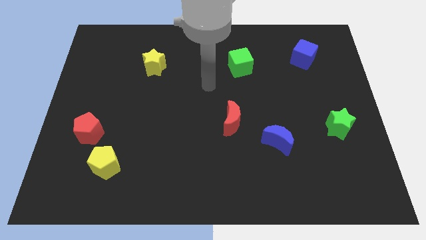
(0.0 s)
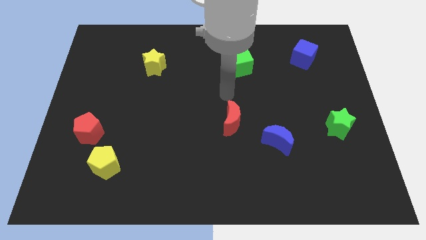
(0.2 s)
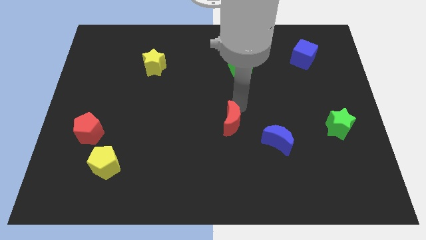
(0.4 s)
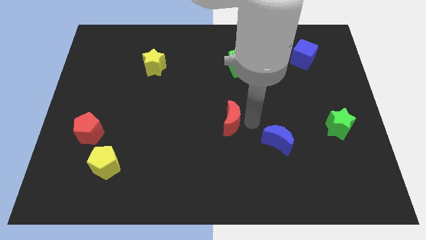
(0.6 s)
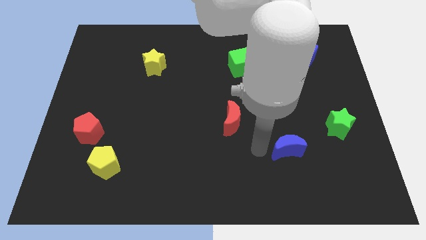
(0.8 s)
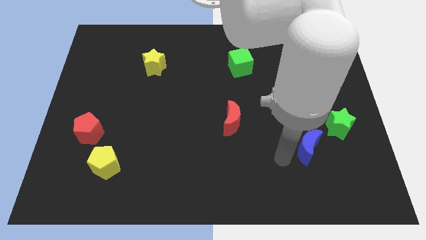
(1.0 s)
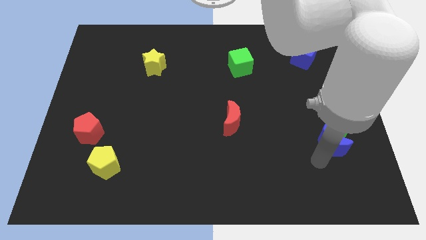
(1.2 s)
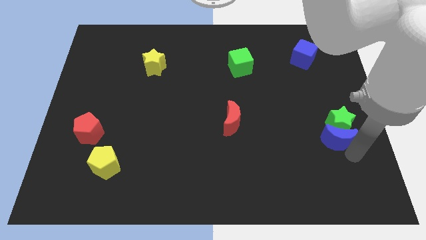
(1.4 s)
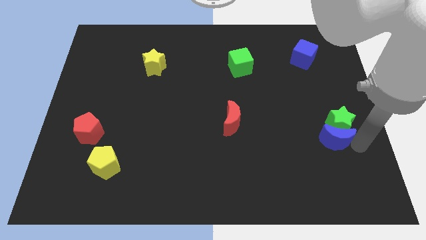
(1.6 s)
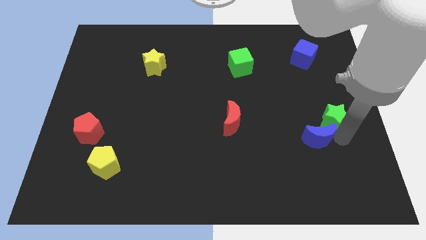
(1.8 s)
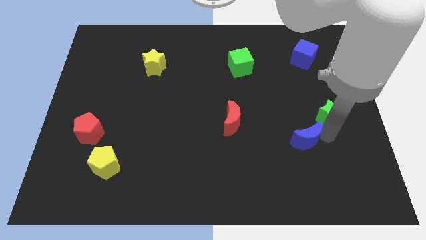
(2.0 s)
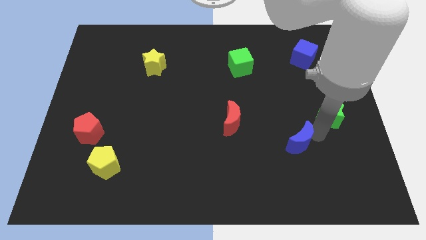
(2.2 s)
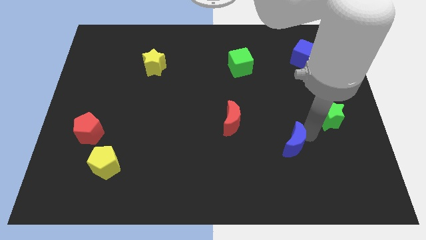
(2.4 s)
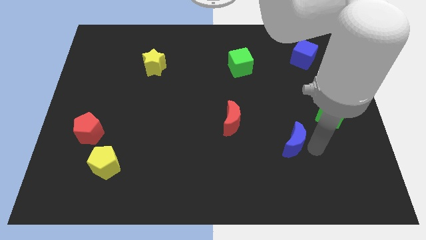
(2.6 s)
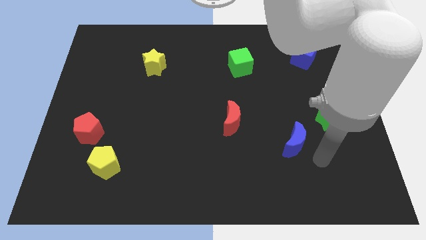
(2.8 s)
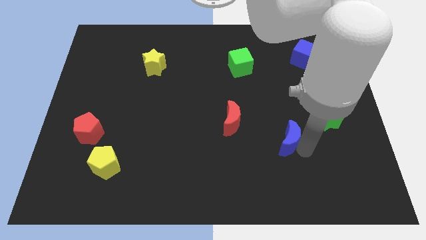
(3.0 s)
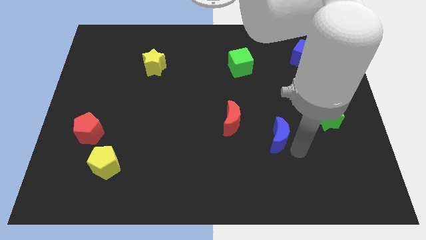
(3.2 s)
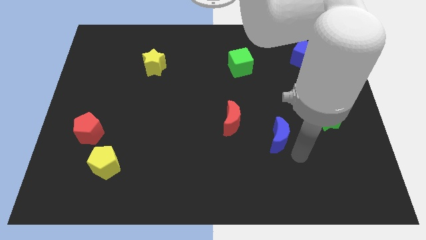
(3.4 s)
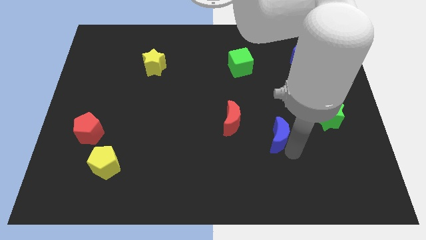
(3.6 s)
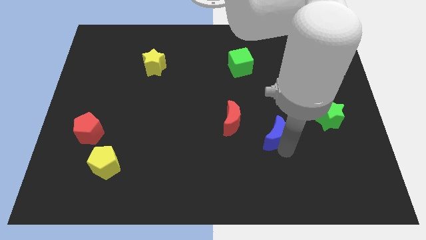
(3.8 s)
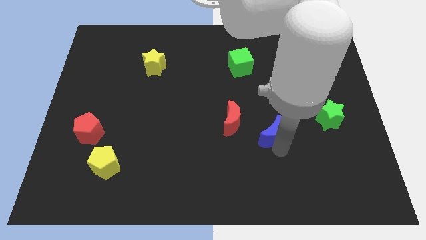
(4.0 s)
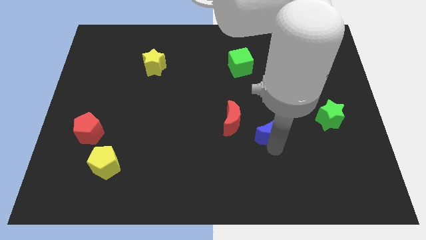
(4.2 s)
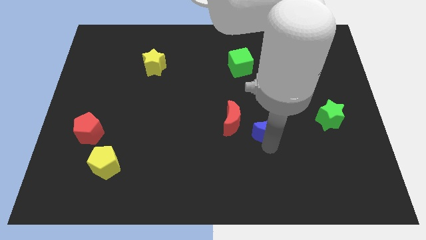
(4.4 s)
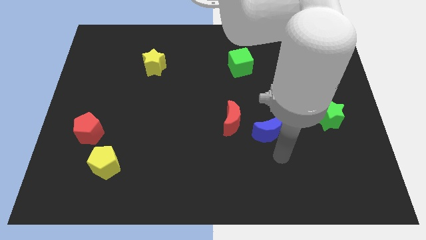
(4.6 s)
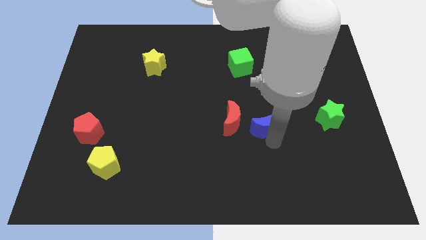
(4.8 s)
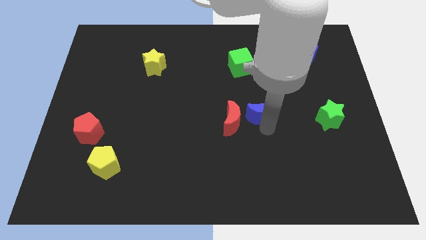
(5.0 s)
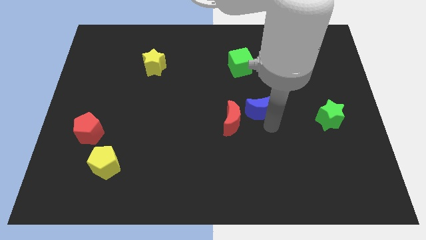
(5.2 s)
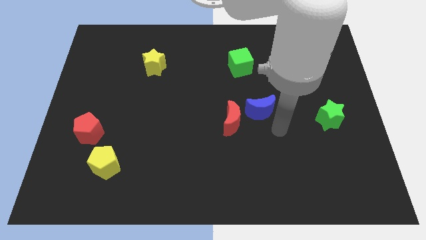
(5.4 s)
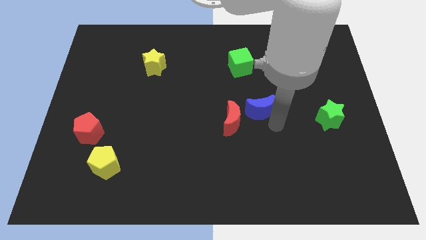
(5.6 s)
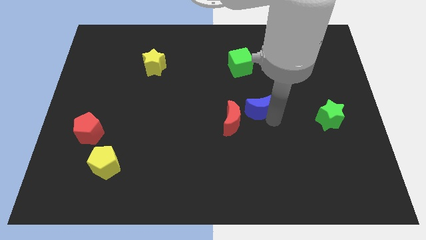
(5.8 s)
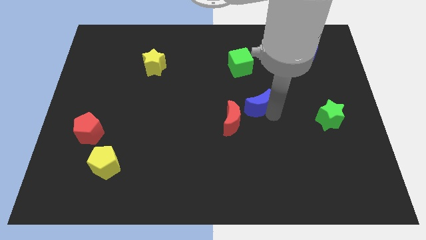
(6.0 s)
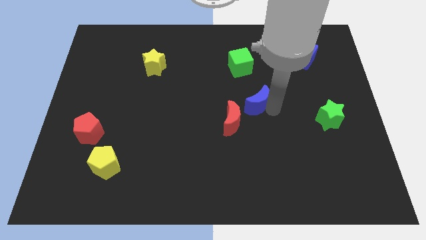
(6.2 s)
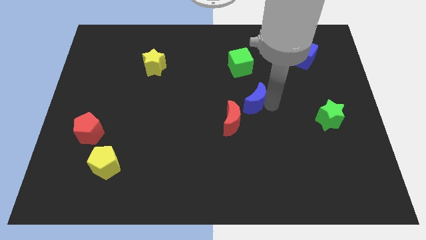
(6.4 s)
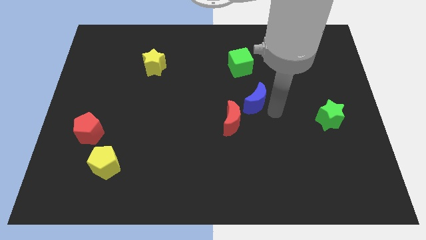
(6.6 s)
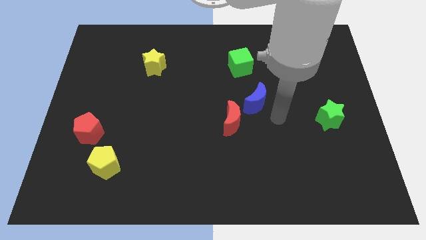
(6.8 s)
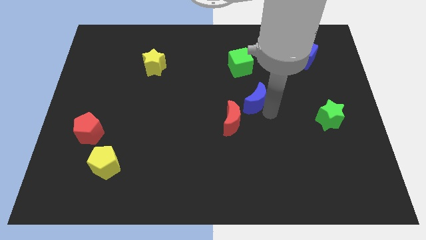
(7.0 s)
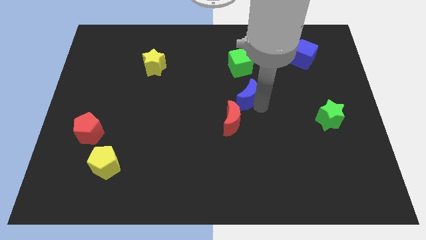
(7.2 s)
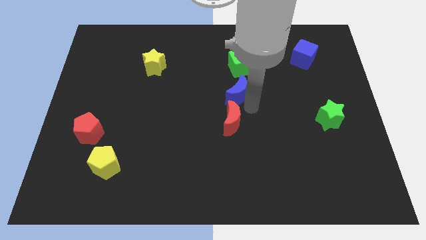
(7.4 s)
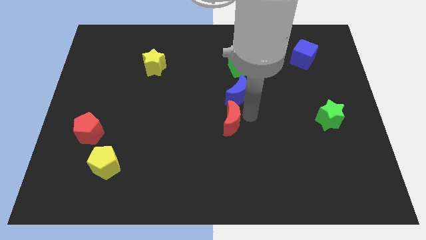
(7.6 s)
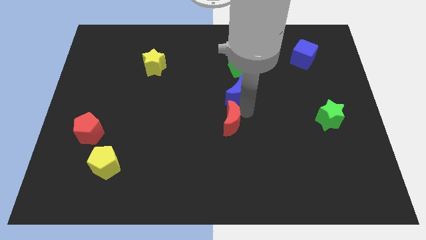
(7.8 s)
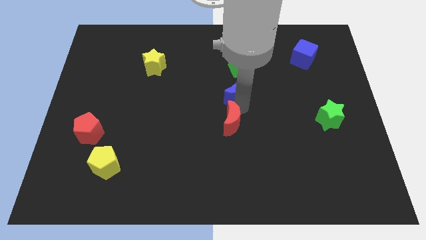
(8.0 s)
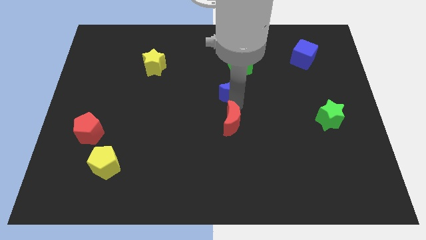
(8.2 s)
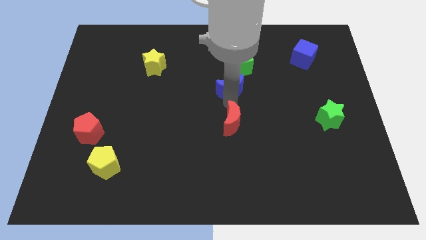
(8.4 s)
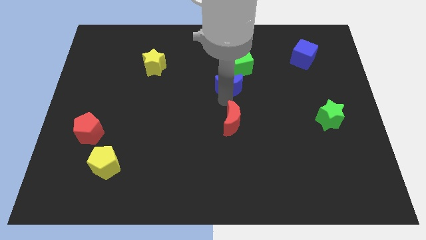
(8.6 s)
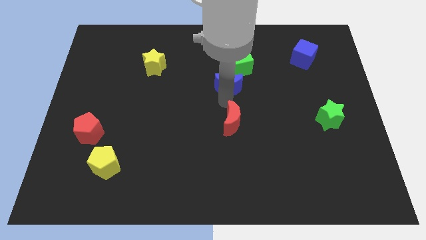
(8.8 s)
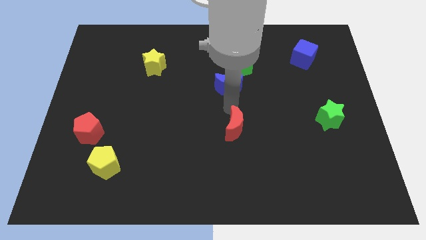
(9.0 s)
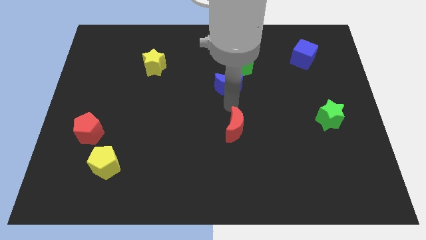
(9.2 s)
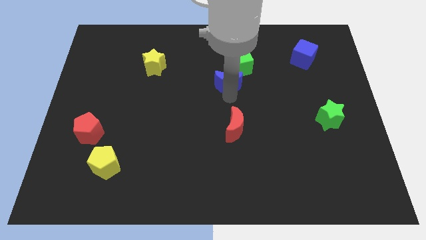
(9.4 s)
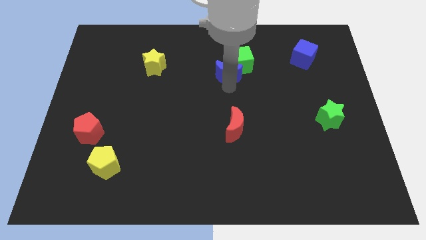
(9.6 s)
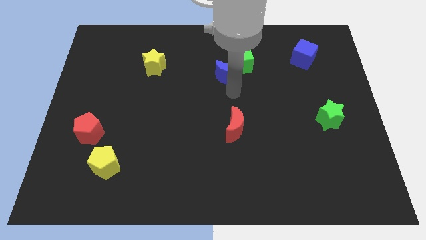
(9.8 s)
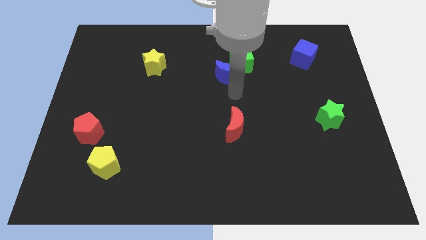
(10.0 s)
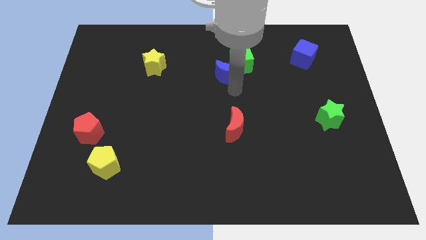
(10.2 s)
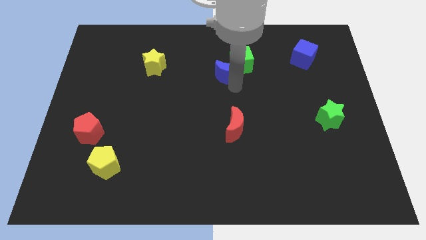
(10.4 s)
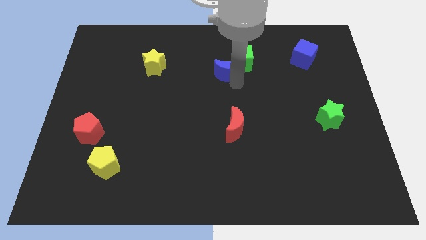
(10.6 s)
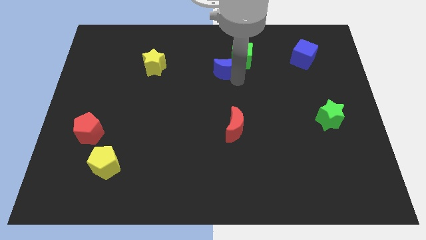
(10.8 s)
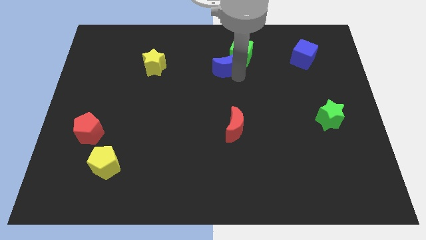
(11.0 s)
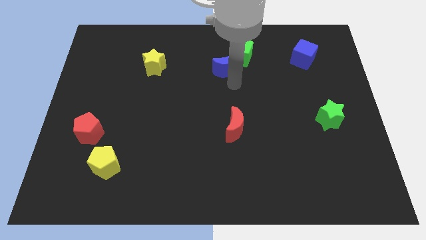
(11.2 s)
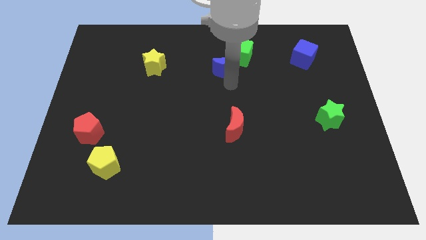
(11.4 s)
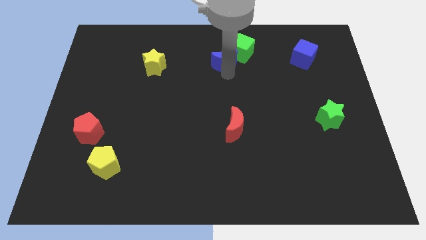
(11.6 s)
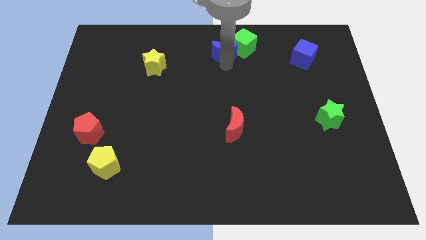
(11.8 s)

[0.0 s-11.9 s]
put the blue moon to the top side

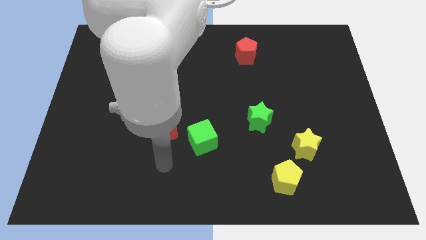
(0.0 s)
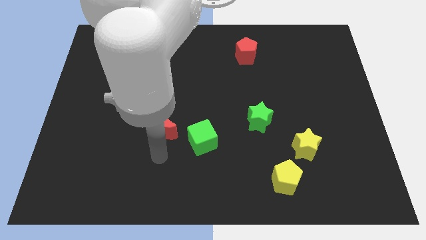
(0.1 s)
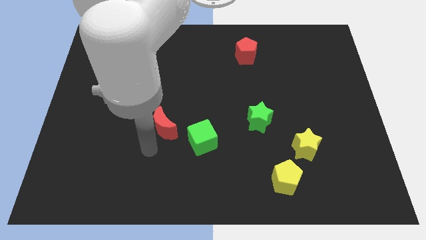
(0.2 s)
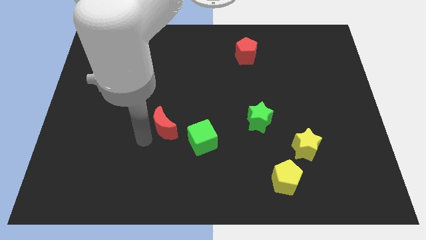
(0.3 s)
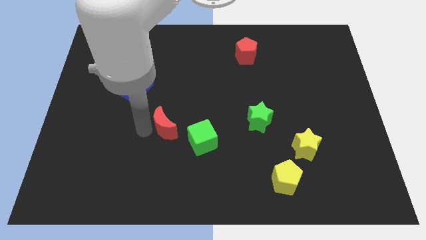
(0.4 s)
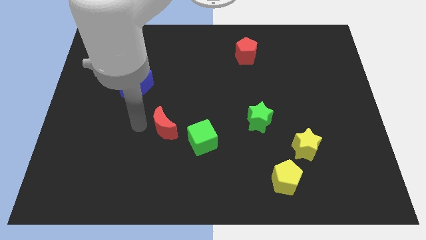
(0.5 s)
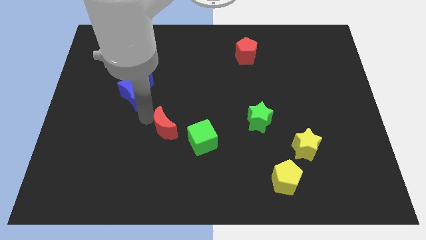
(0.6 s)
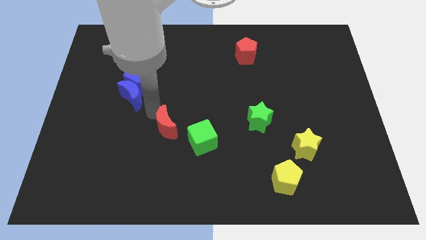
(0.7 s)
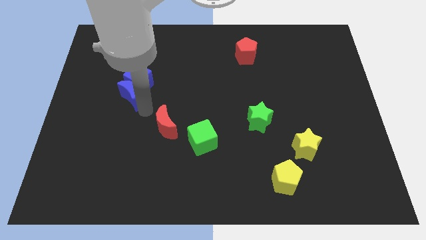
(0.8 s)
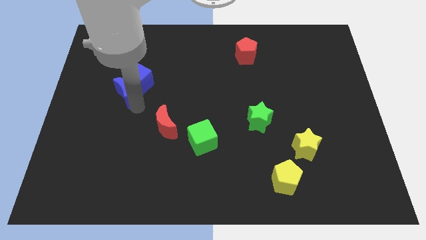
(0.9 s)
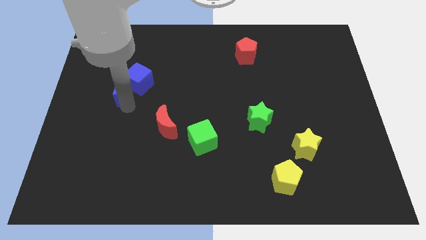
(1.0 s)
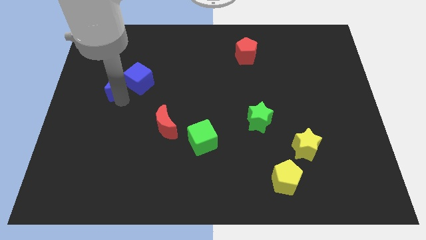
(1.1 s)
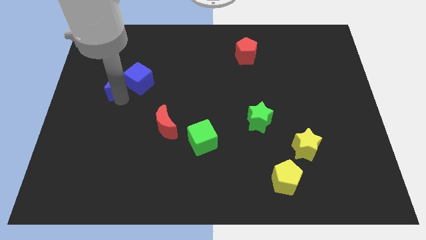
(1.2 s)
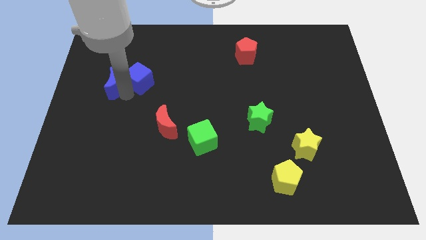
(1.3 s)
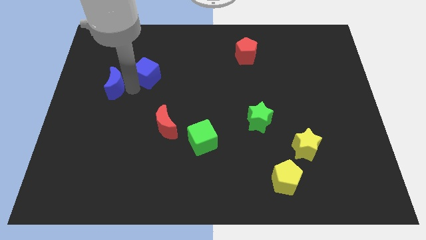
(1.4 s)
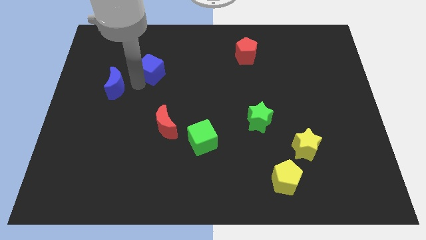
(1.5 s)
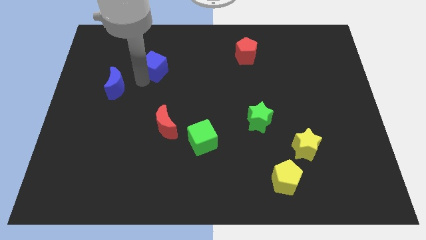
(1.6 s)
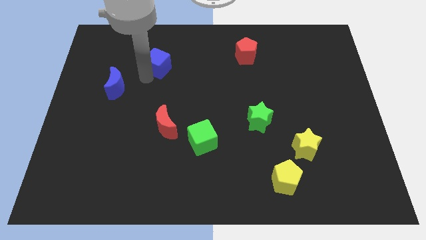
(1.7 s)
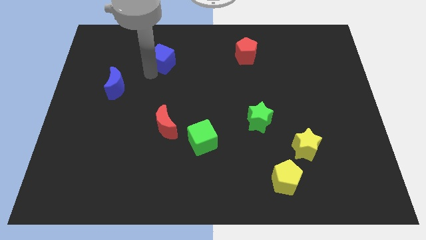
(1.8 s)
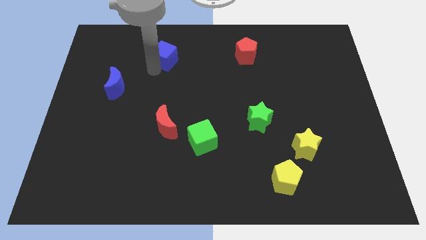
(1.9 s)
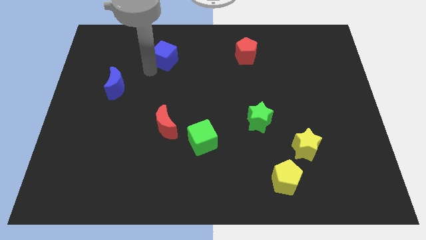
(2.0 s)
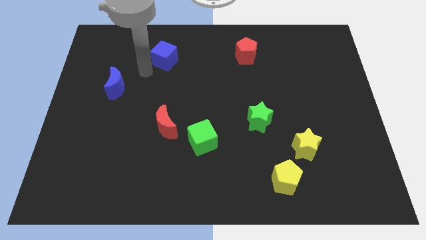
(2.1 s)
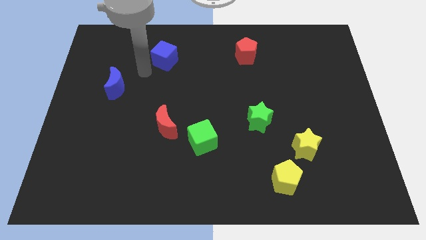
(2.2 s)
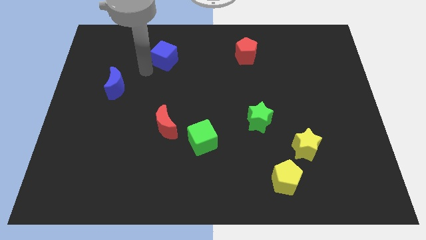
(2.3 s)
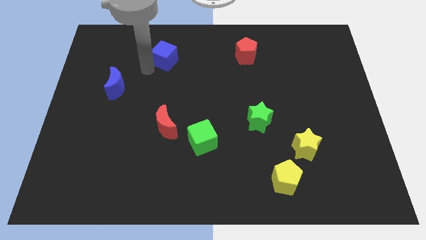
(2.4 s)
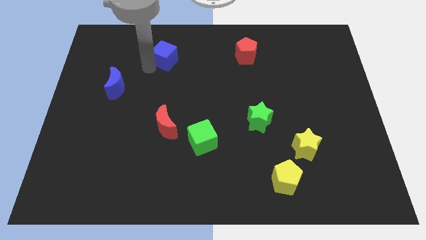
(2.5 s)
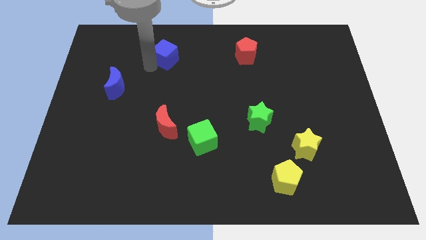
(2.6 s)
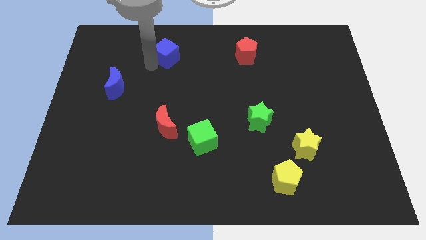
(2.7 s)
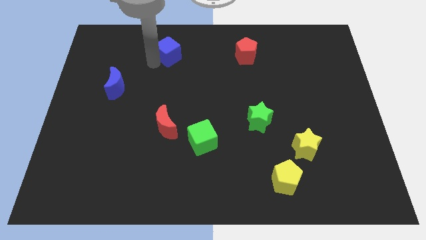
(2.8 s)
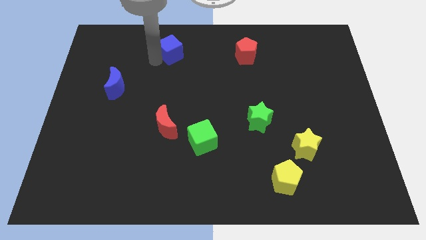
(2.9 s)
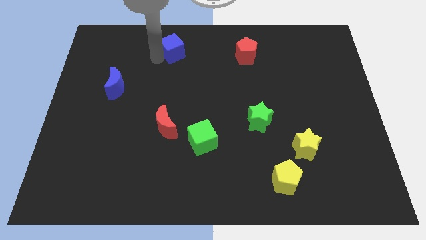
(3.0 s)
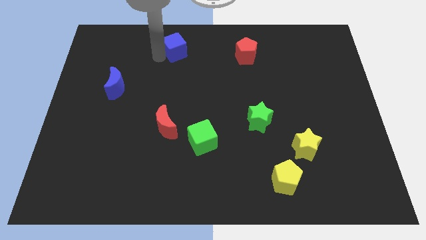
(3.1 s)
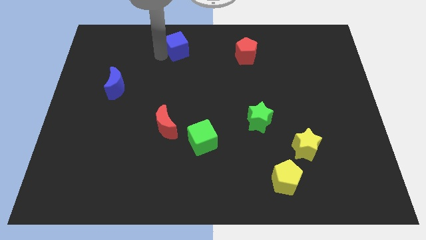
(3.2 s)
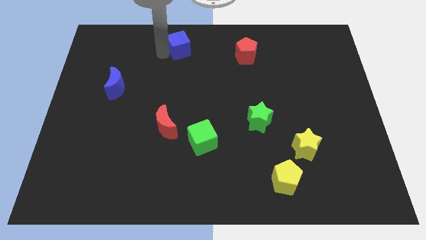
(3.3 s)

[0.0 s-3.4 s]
push the blue cube to the towards your base
